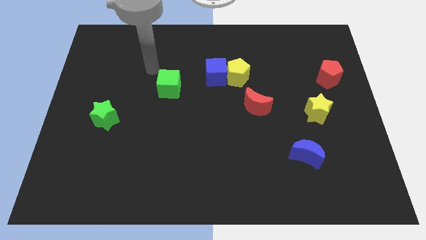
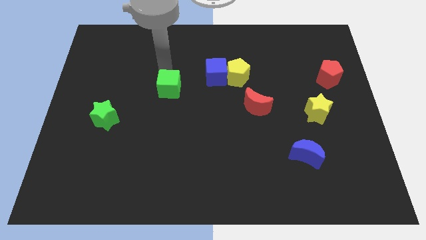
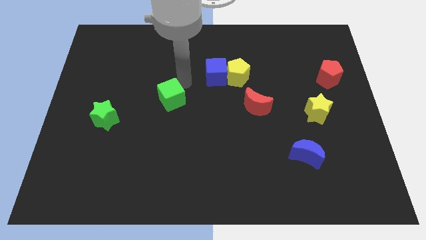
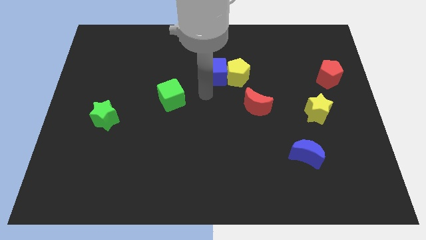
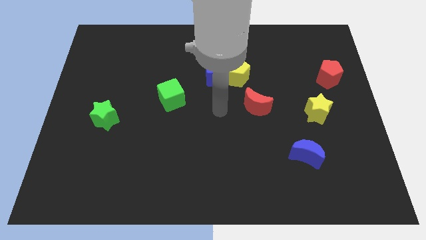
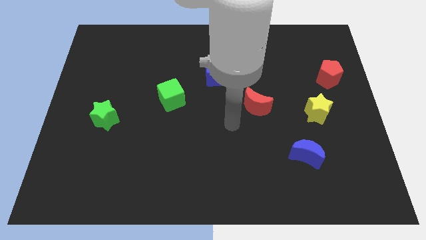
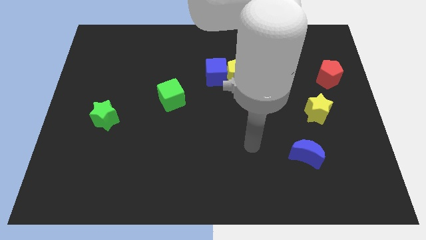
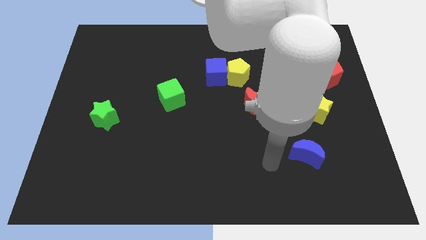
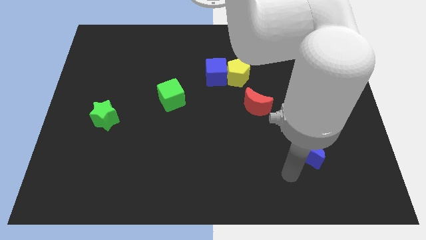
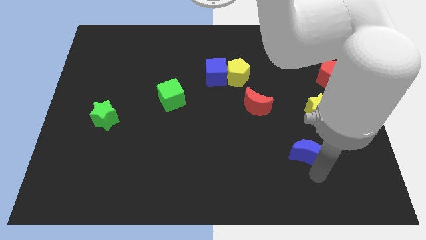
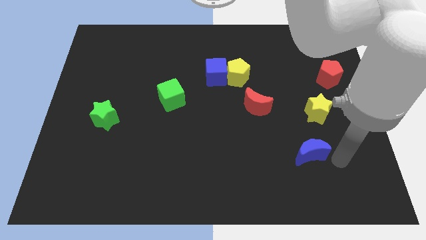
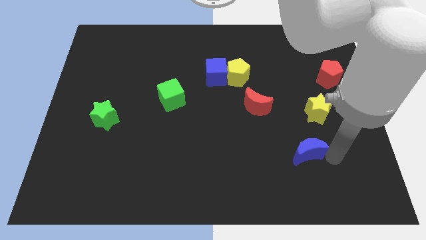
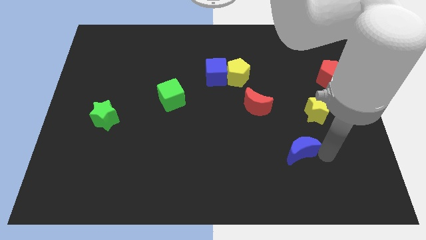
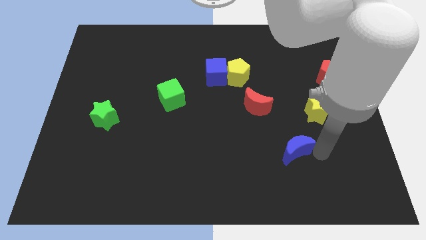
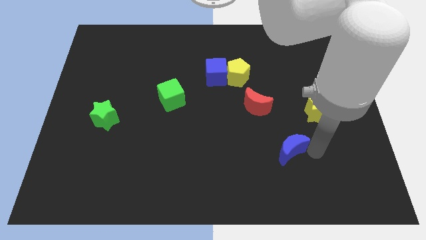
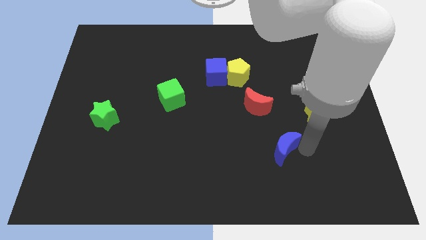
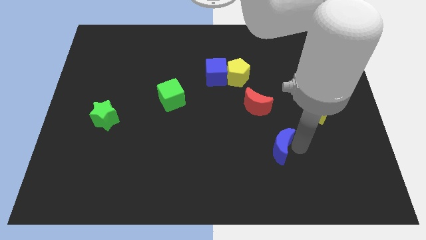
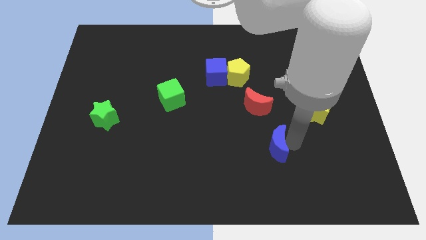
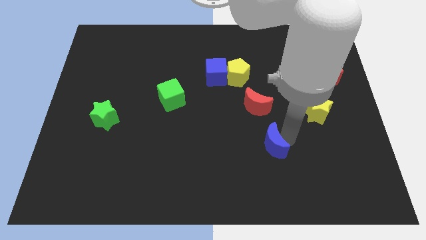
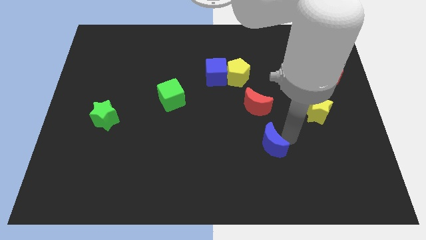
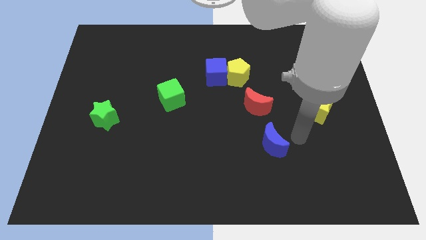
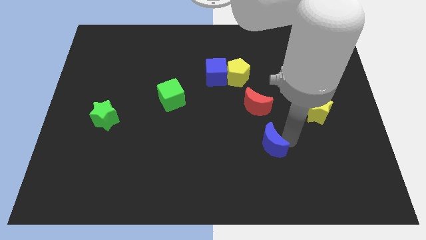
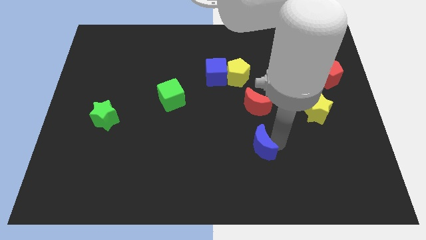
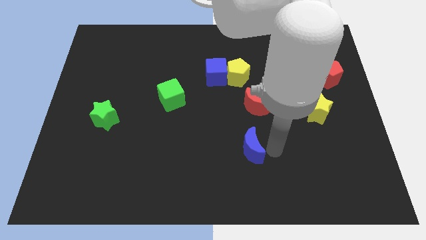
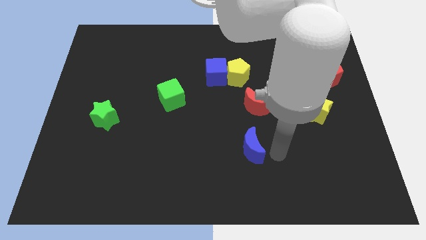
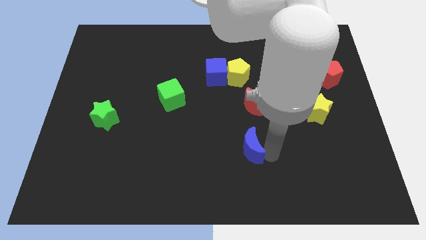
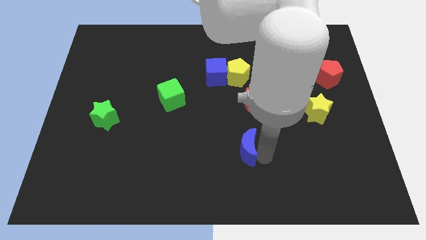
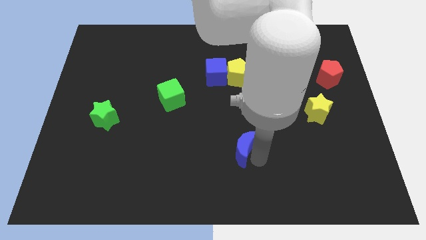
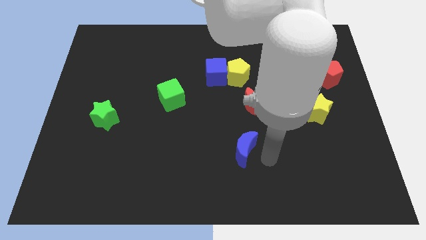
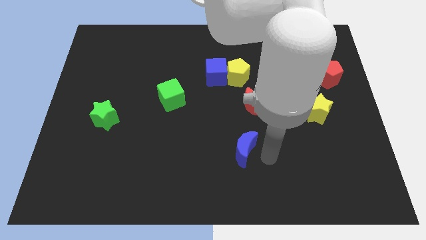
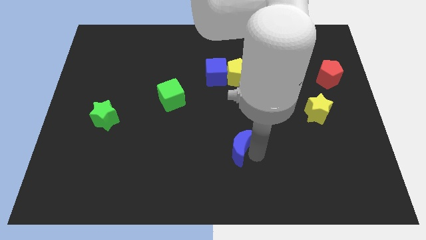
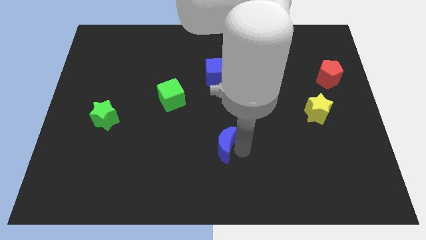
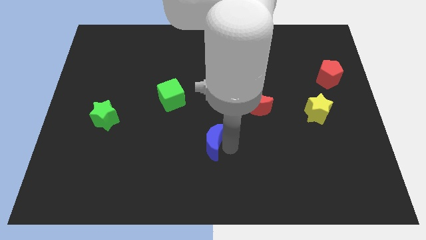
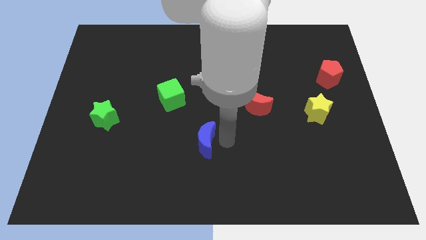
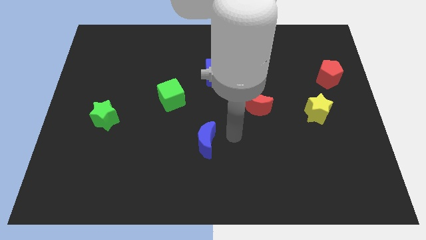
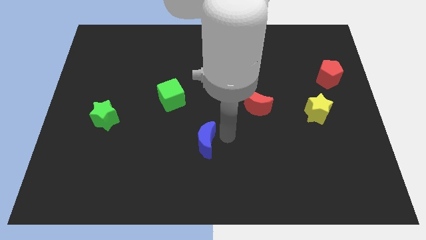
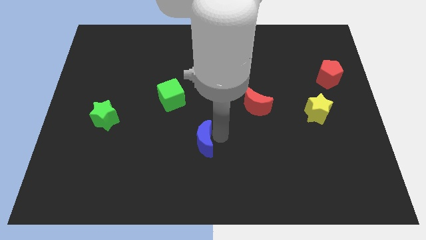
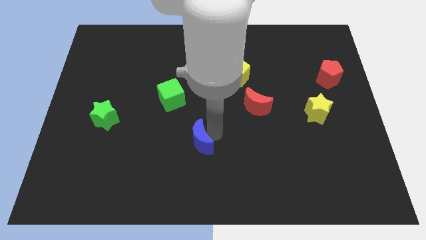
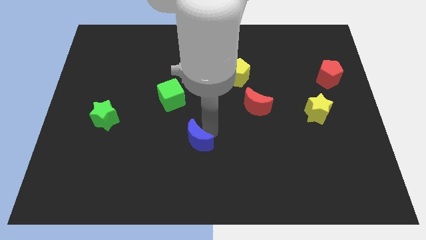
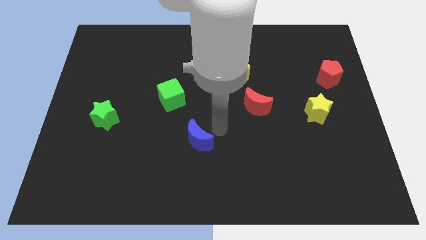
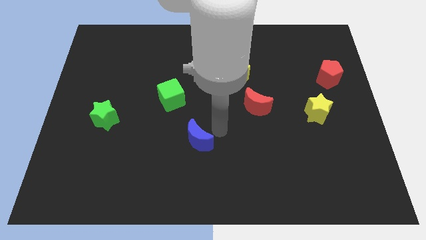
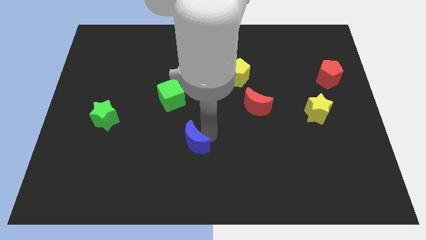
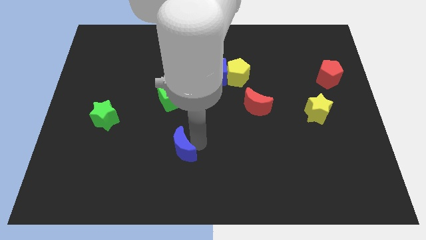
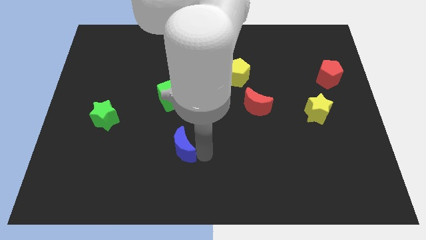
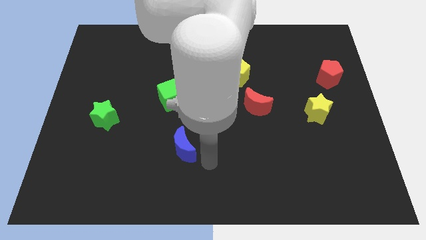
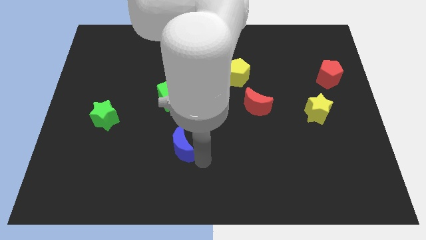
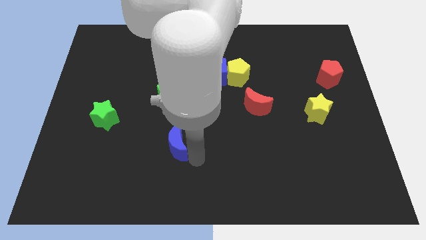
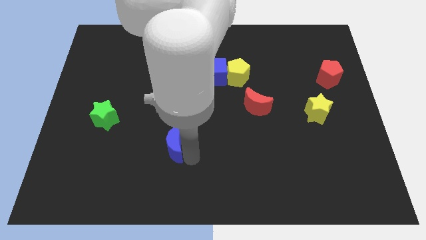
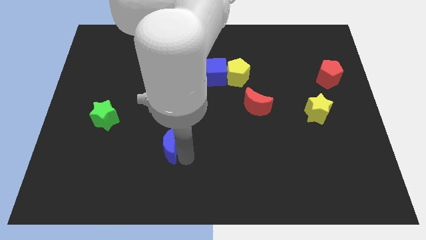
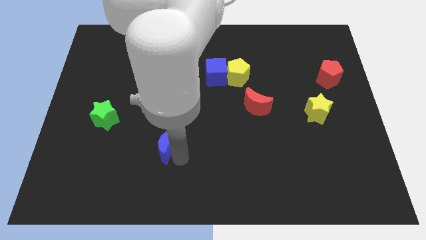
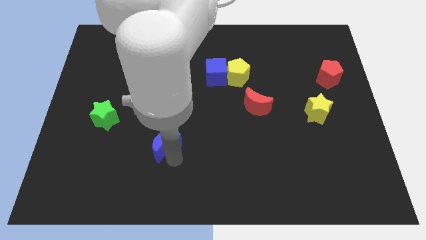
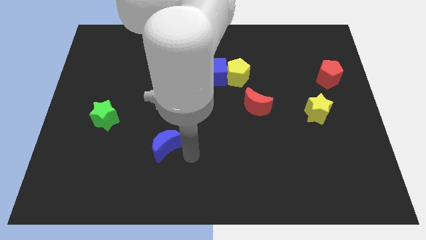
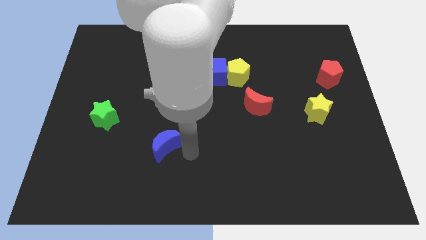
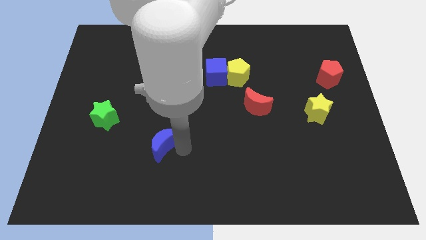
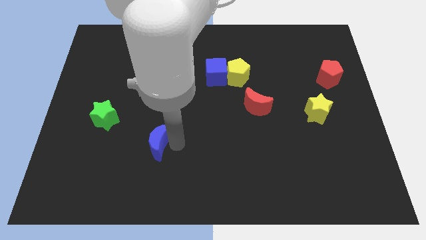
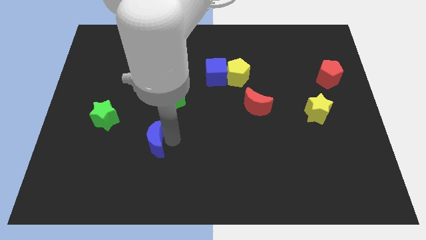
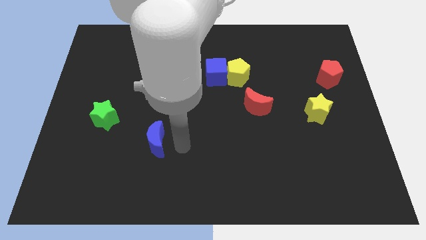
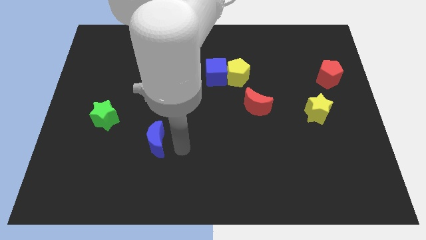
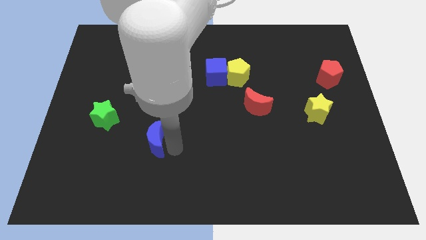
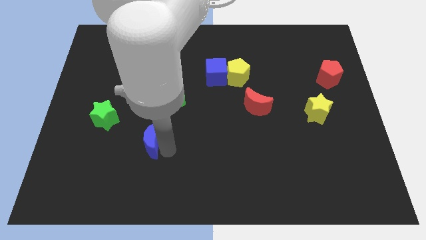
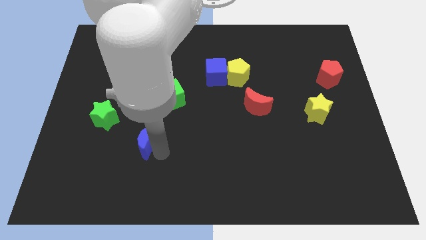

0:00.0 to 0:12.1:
put the blue moon to the bottom right of the green star

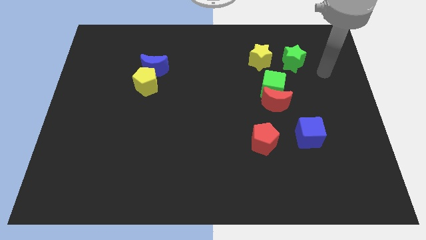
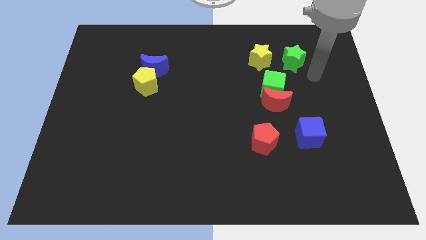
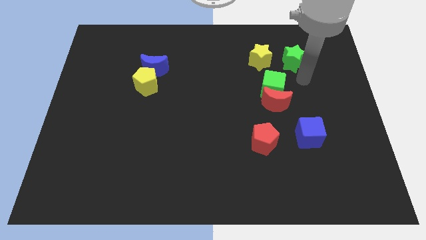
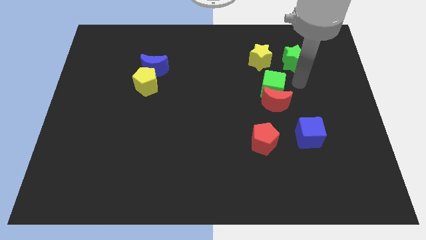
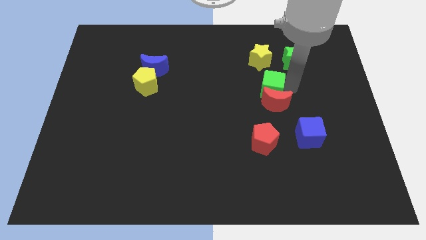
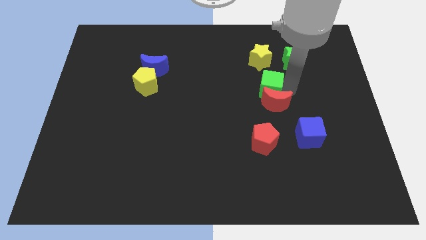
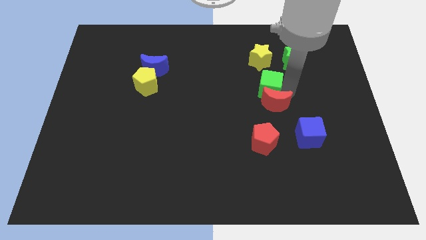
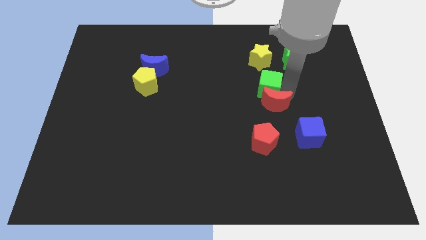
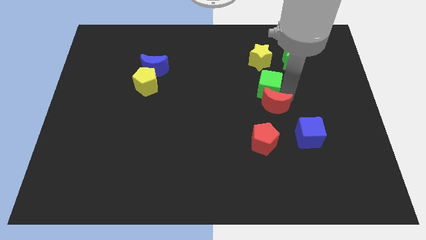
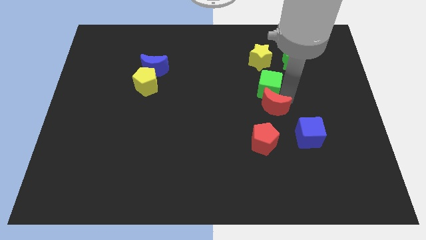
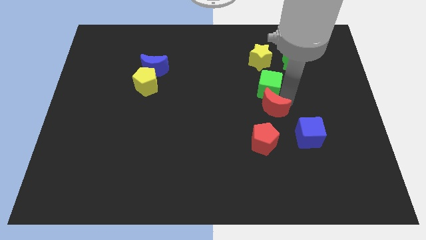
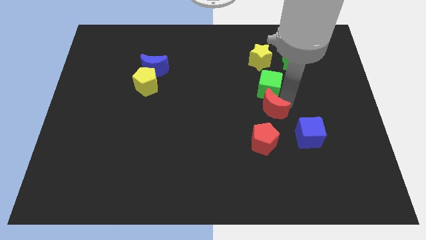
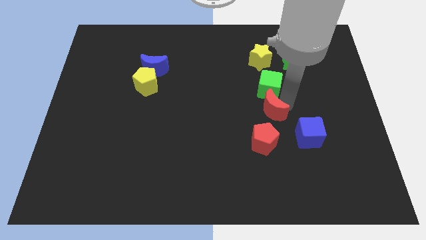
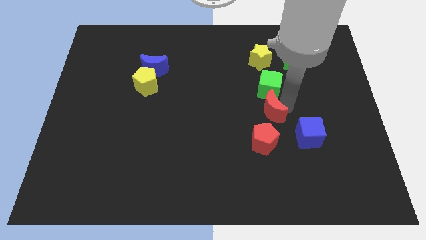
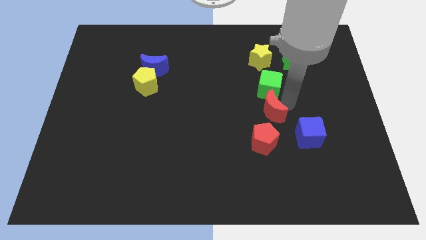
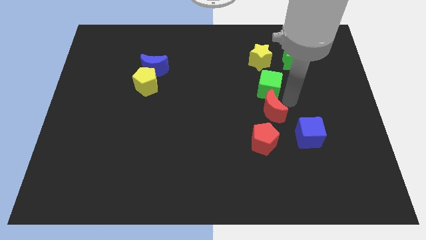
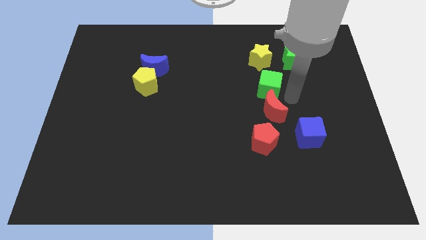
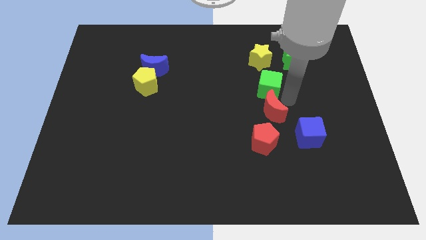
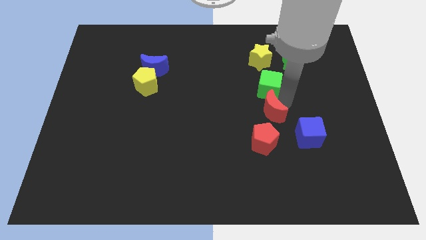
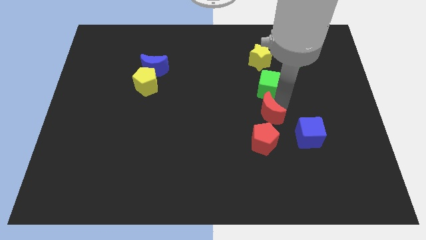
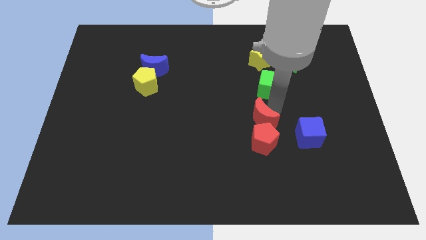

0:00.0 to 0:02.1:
slide the red moon to the left side of the blue cube

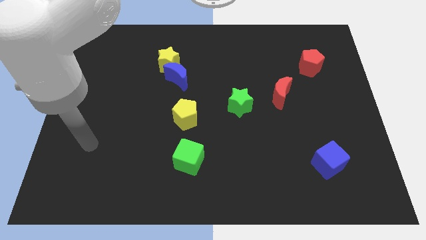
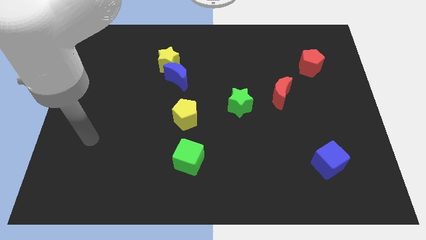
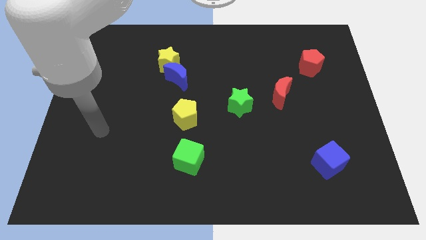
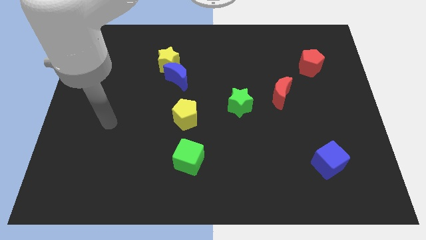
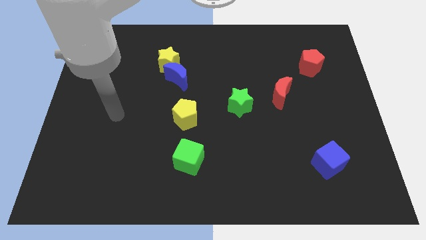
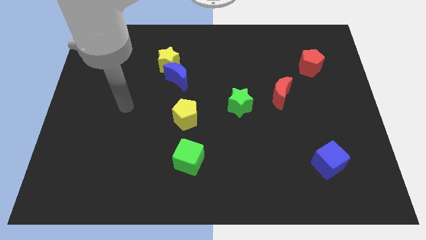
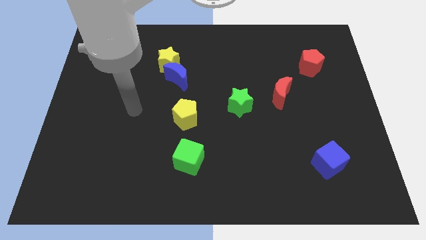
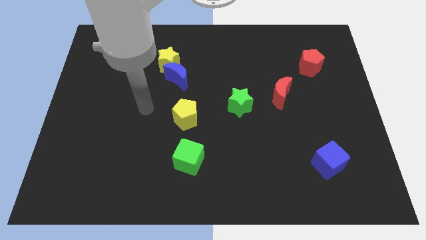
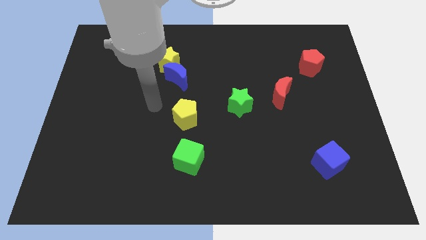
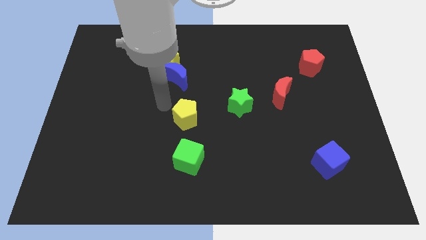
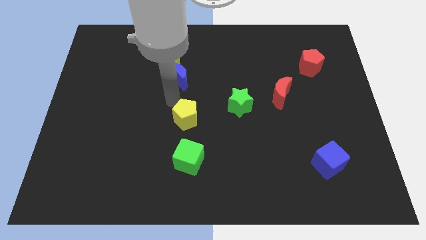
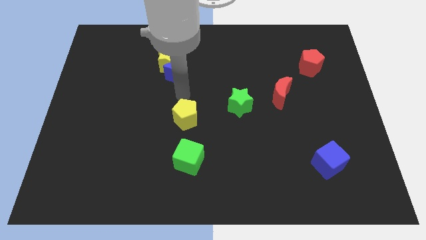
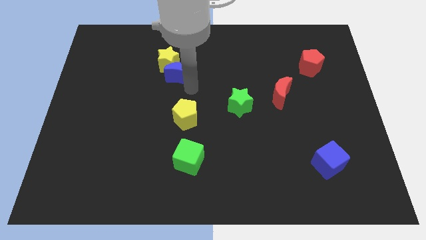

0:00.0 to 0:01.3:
slide the yellow star to the left of the blue moon
